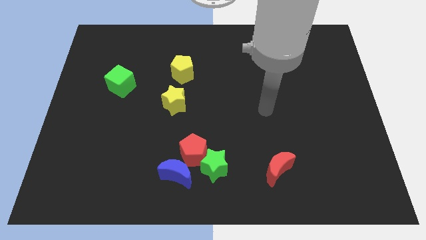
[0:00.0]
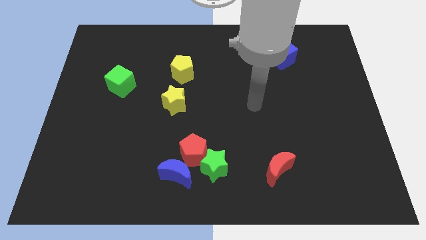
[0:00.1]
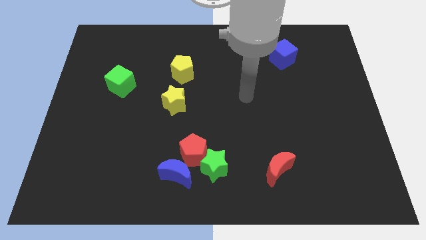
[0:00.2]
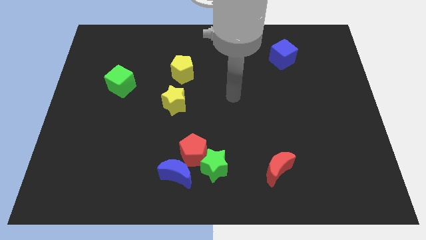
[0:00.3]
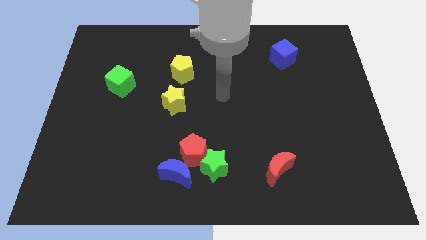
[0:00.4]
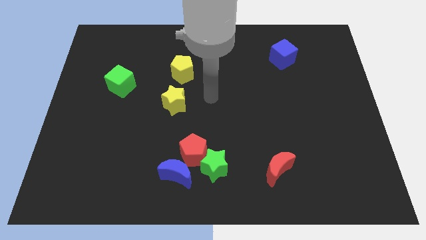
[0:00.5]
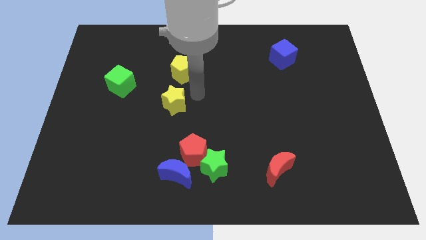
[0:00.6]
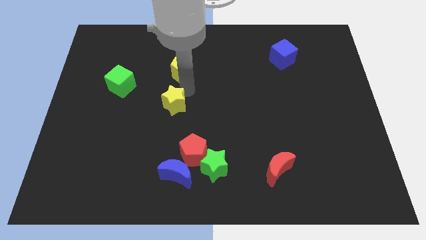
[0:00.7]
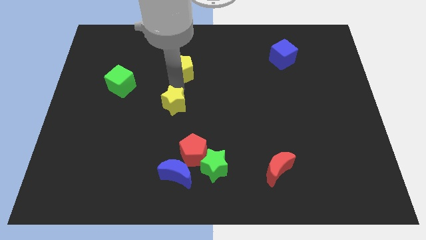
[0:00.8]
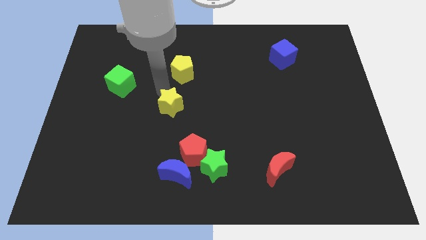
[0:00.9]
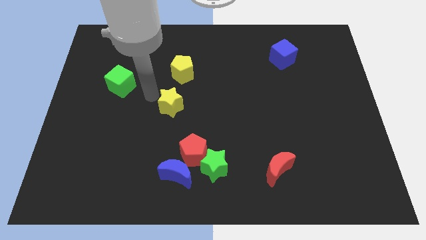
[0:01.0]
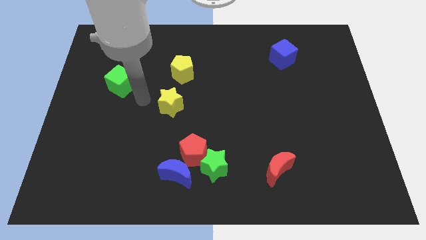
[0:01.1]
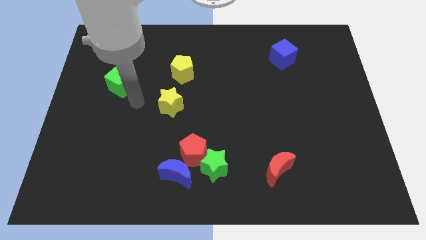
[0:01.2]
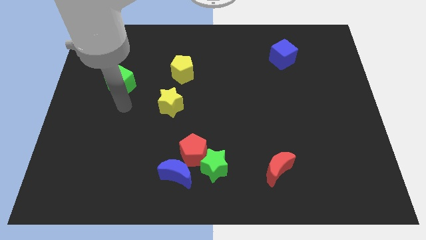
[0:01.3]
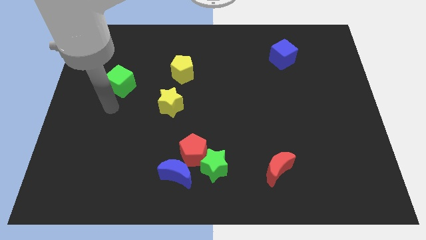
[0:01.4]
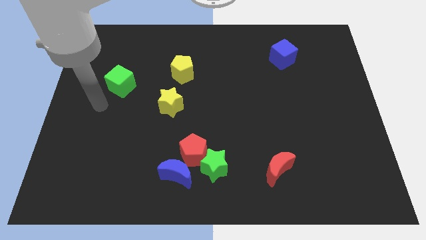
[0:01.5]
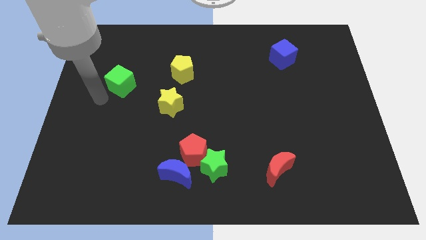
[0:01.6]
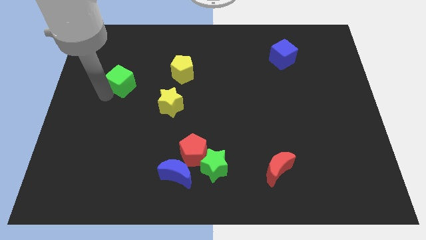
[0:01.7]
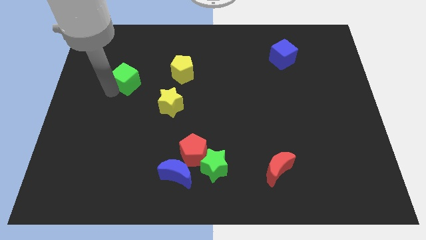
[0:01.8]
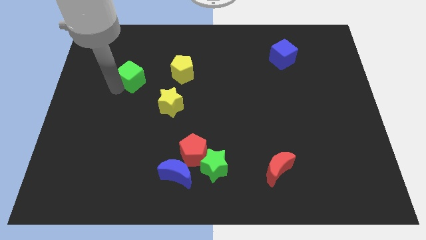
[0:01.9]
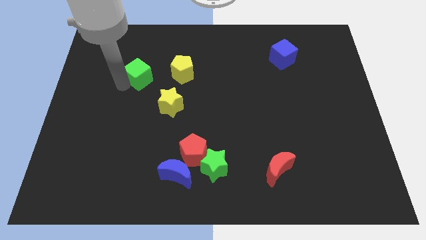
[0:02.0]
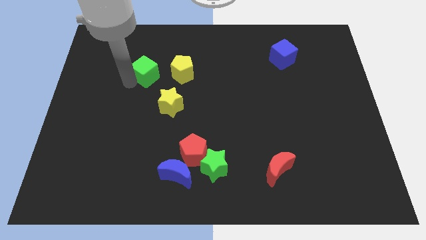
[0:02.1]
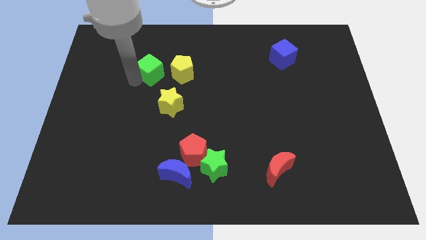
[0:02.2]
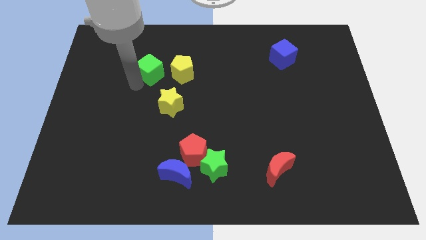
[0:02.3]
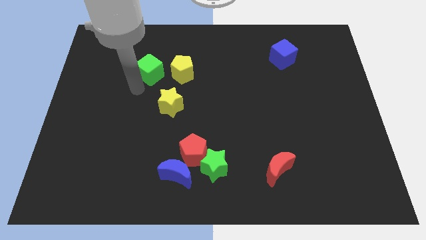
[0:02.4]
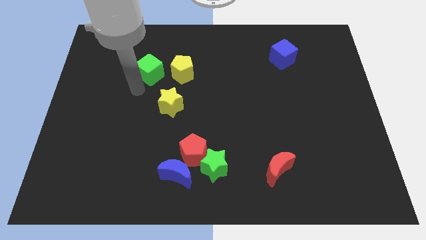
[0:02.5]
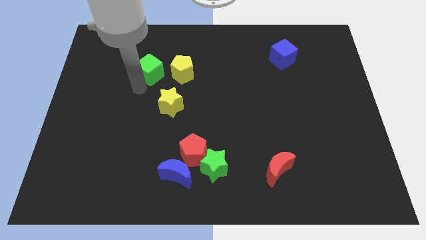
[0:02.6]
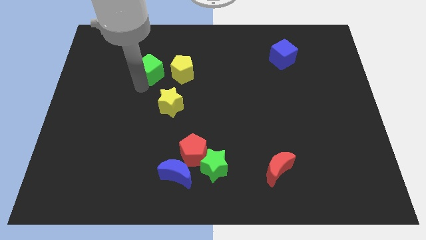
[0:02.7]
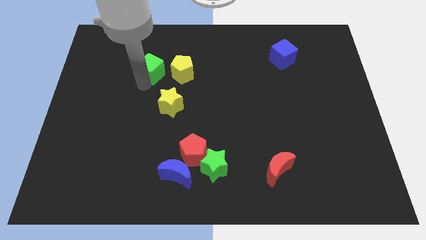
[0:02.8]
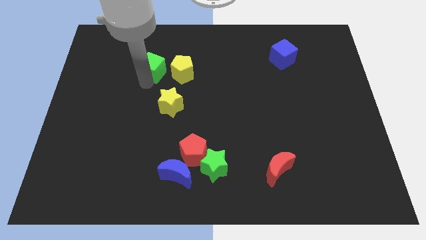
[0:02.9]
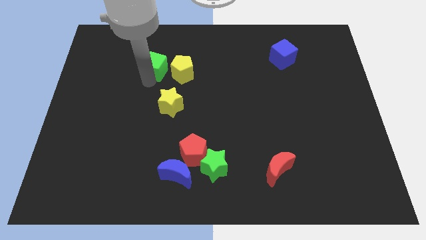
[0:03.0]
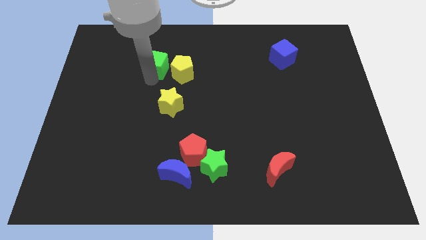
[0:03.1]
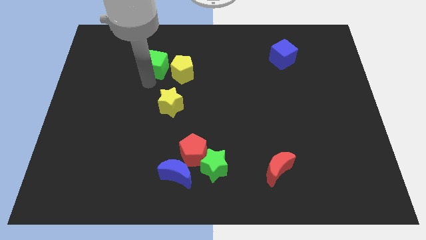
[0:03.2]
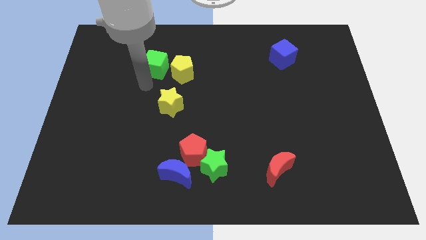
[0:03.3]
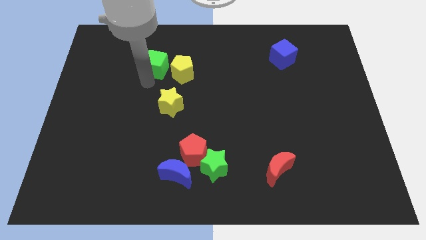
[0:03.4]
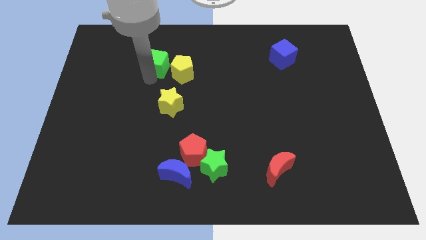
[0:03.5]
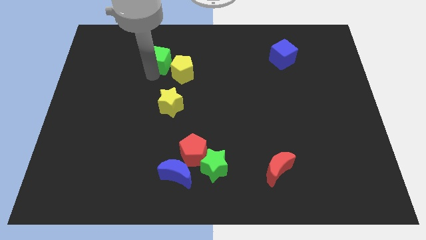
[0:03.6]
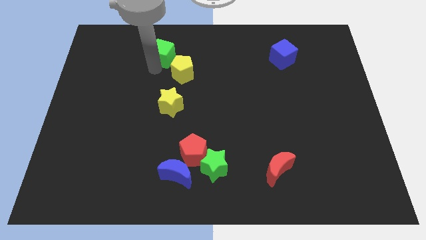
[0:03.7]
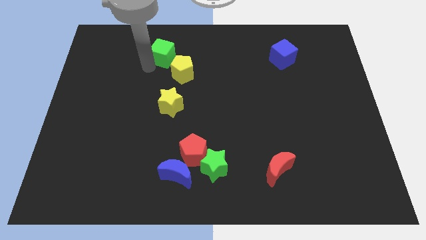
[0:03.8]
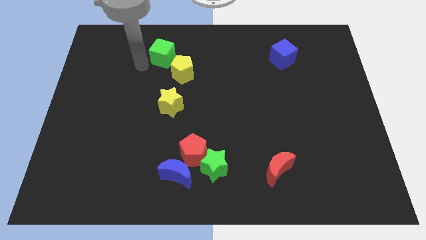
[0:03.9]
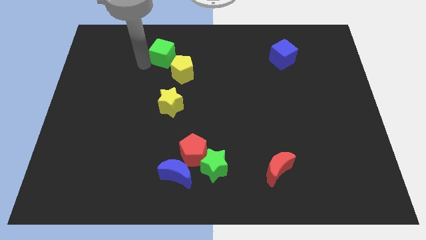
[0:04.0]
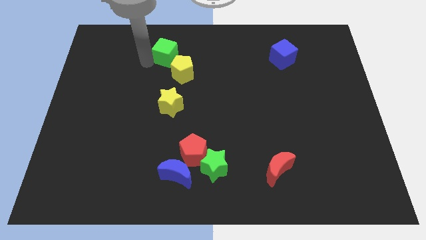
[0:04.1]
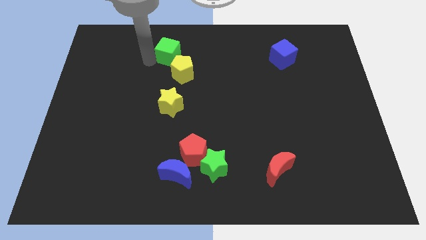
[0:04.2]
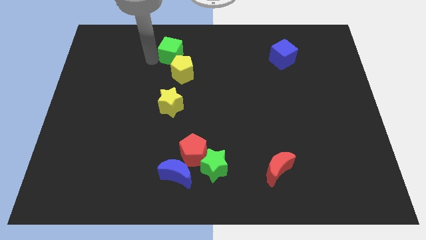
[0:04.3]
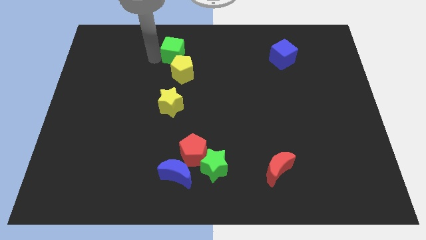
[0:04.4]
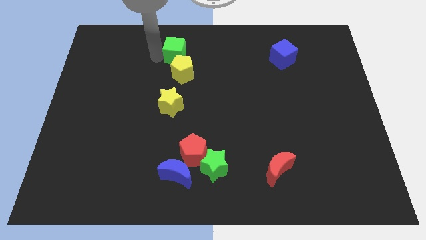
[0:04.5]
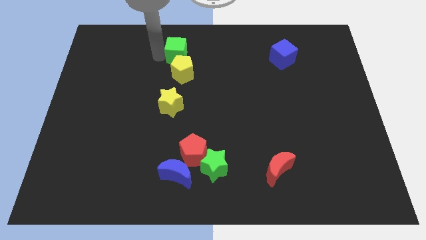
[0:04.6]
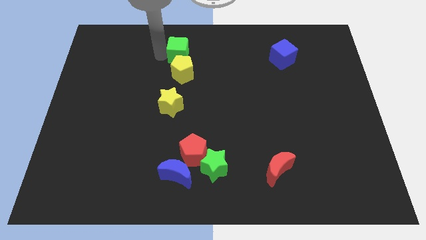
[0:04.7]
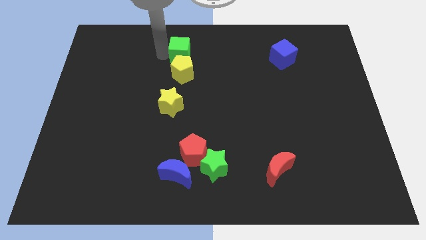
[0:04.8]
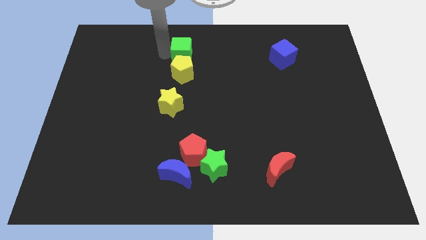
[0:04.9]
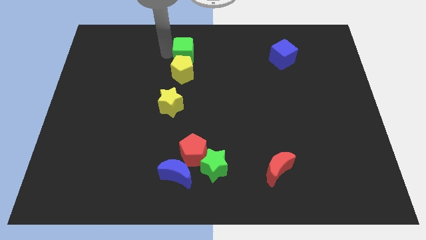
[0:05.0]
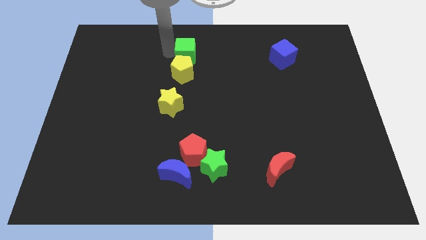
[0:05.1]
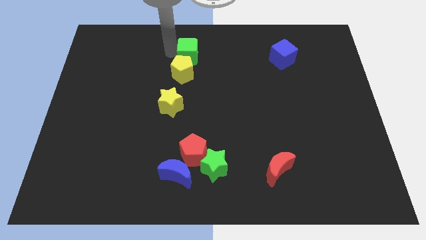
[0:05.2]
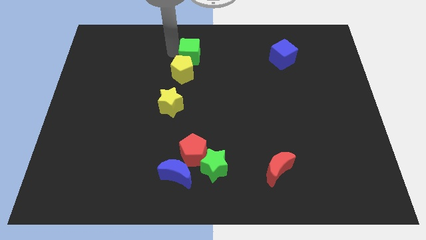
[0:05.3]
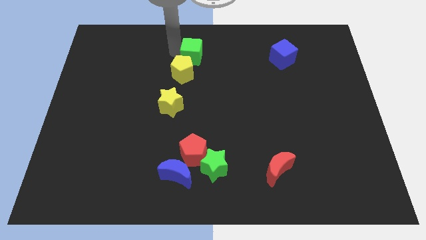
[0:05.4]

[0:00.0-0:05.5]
put the green cube to the towards your base

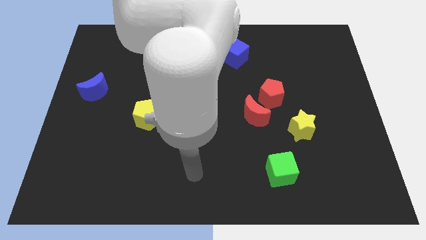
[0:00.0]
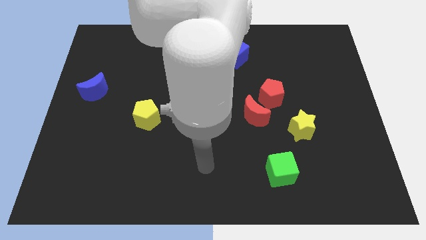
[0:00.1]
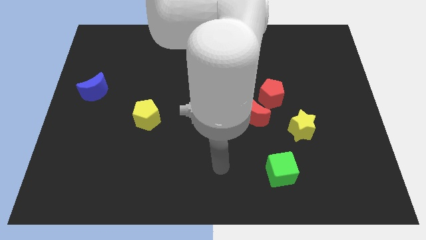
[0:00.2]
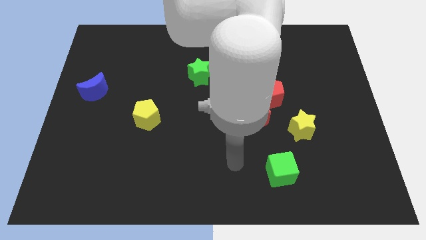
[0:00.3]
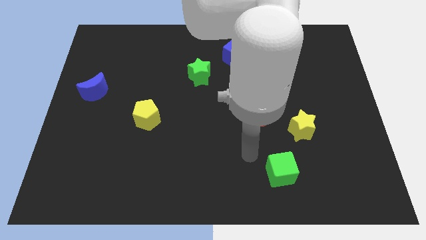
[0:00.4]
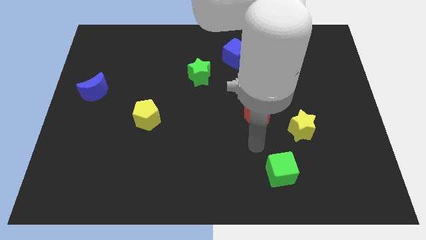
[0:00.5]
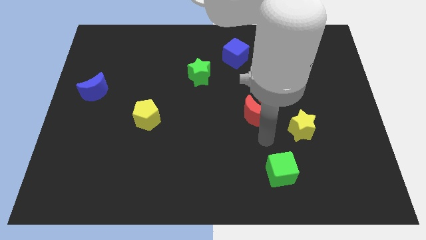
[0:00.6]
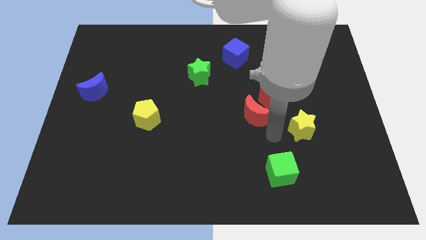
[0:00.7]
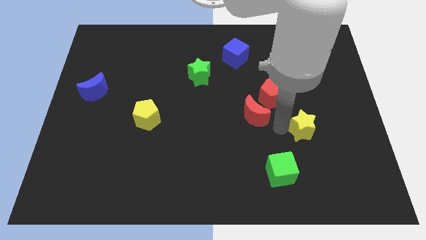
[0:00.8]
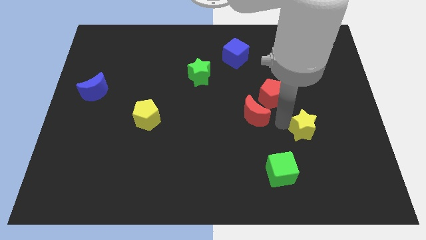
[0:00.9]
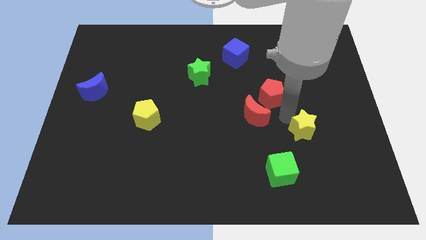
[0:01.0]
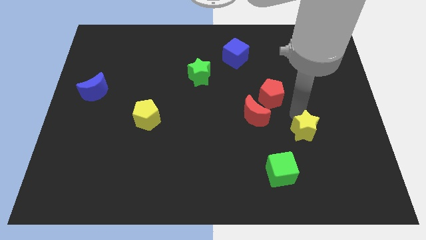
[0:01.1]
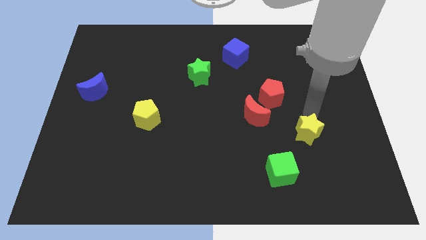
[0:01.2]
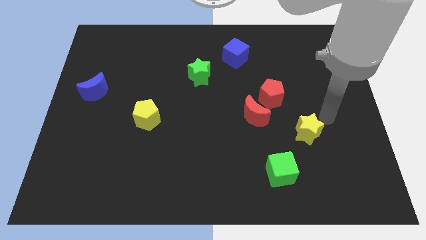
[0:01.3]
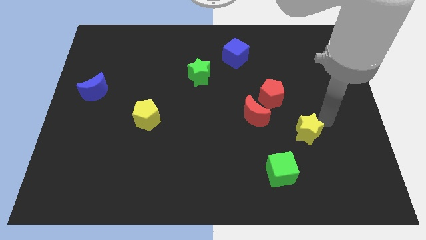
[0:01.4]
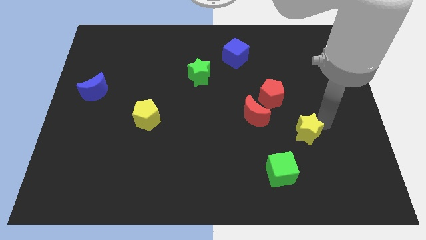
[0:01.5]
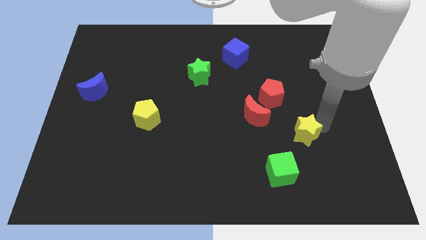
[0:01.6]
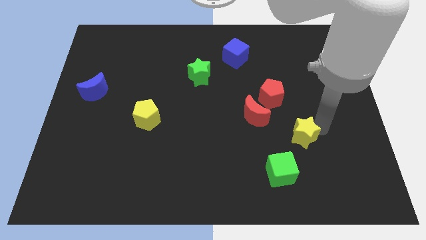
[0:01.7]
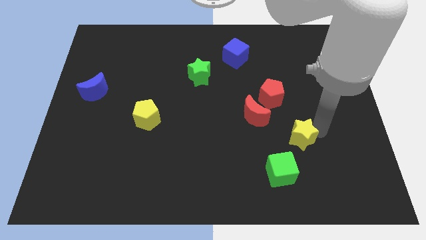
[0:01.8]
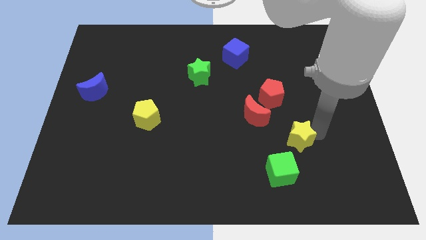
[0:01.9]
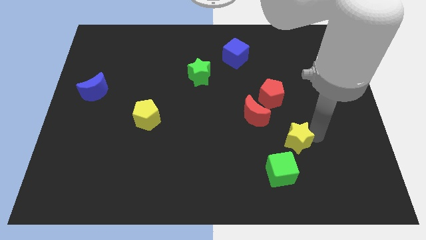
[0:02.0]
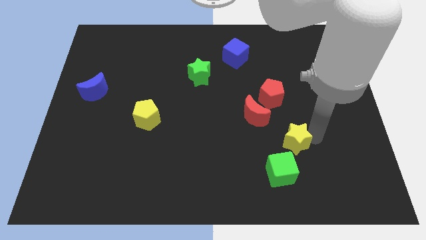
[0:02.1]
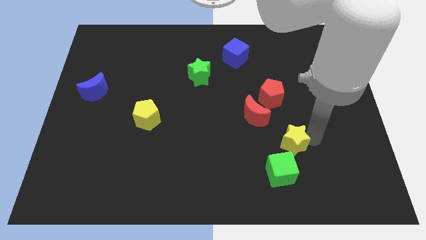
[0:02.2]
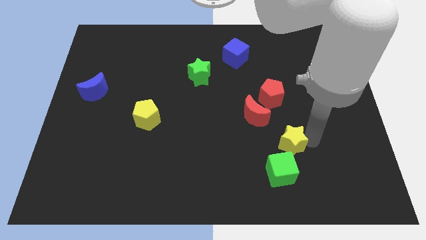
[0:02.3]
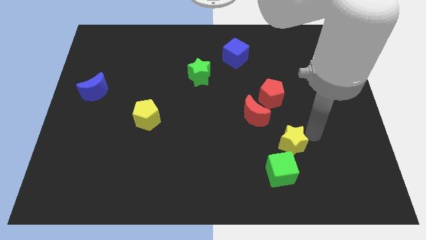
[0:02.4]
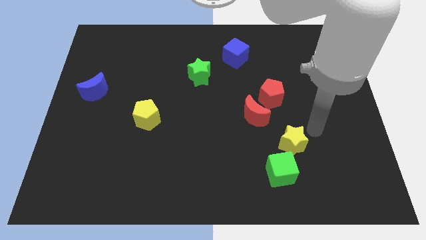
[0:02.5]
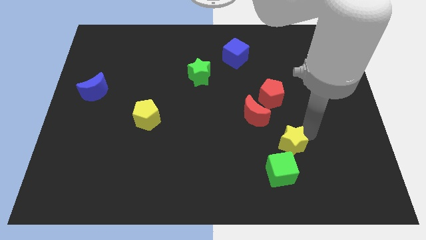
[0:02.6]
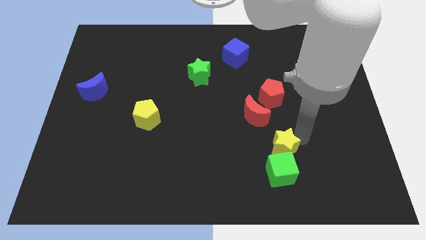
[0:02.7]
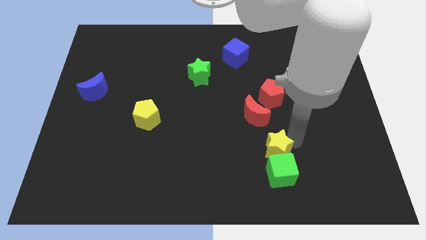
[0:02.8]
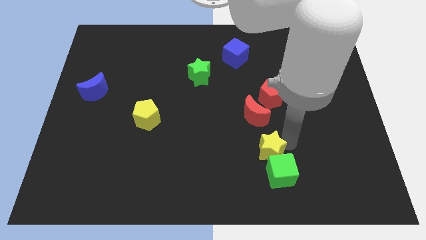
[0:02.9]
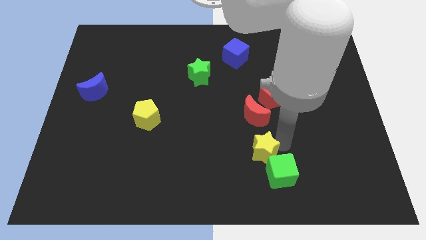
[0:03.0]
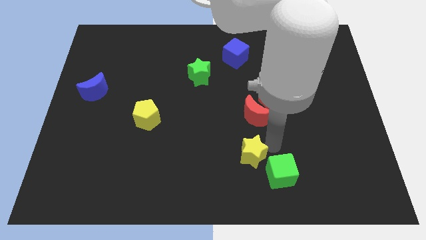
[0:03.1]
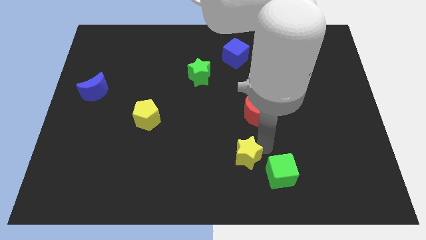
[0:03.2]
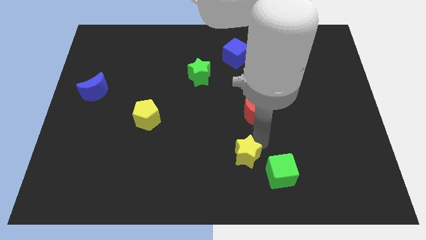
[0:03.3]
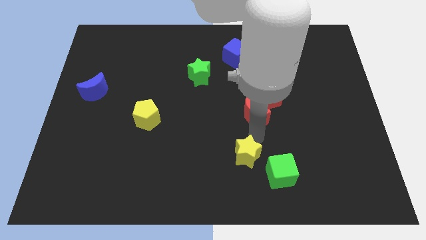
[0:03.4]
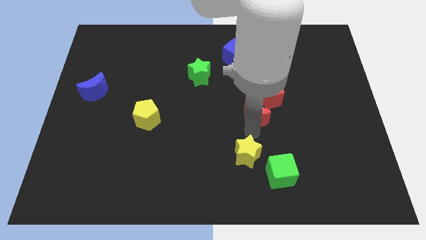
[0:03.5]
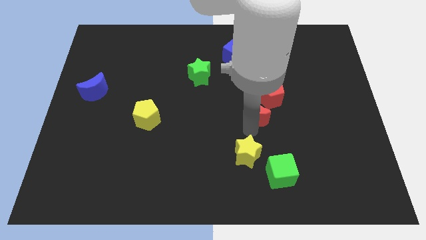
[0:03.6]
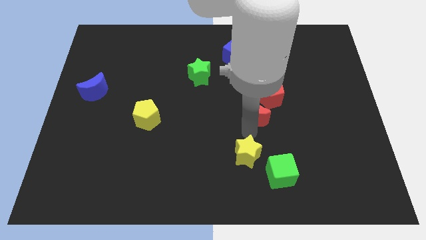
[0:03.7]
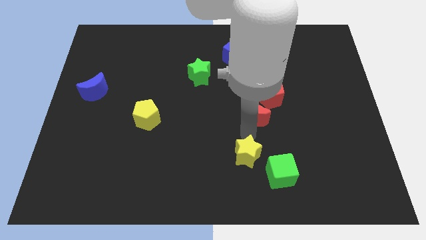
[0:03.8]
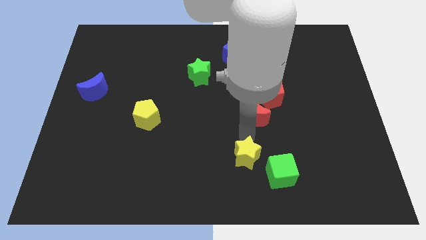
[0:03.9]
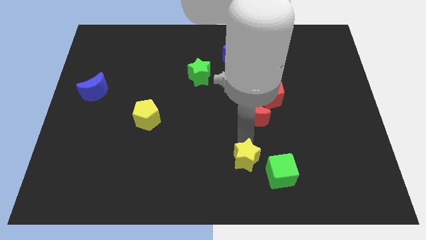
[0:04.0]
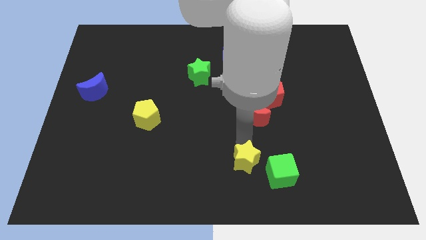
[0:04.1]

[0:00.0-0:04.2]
slide the yellow star to the bottom
